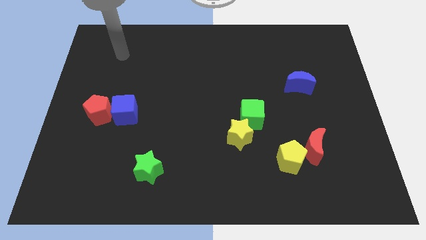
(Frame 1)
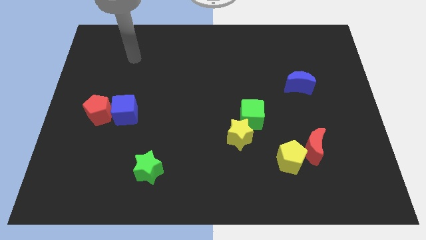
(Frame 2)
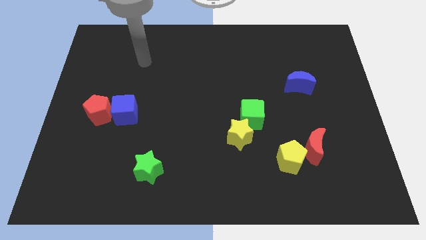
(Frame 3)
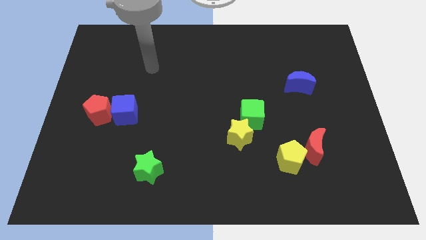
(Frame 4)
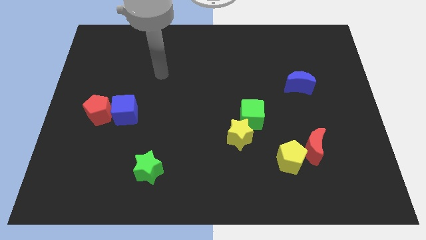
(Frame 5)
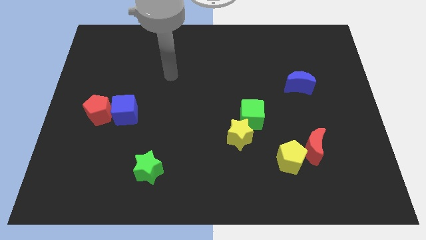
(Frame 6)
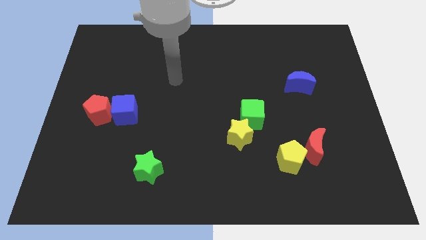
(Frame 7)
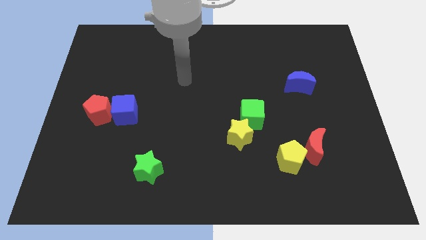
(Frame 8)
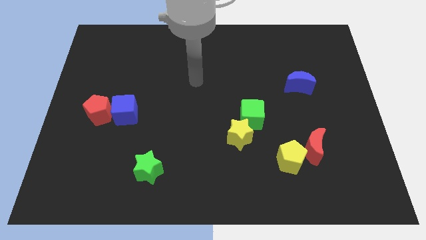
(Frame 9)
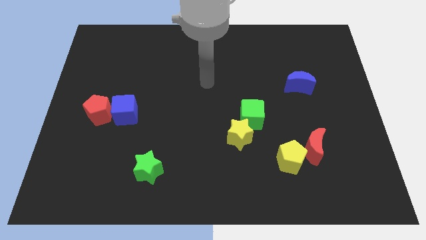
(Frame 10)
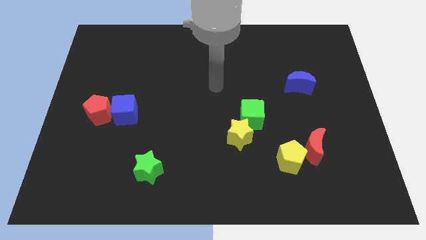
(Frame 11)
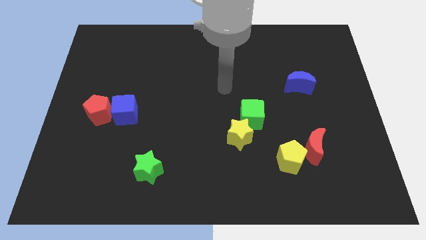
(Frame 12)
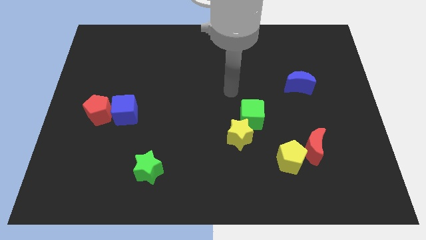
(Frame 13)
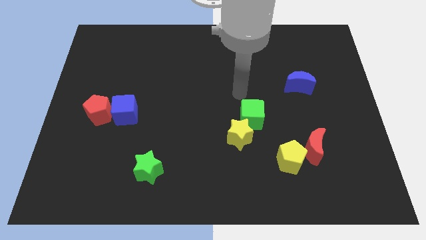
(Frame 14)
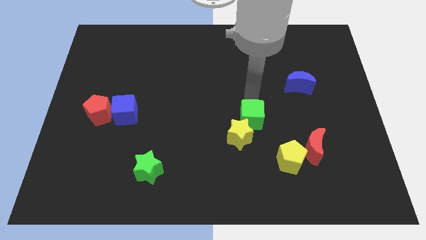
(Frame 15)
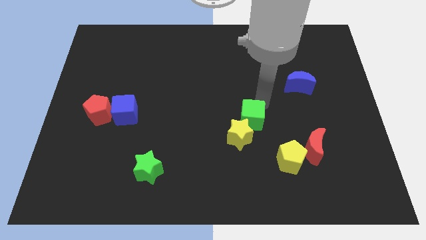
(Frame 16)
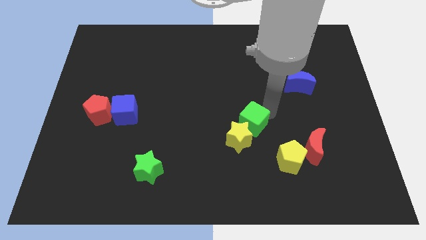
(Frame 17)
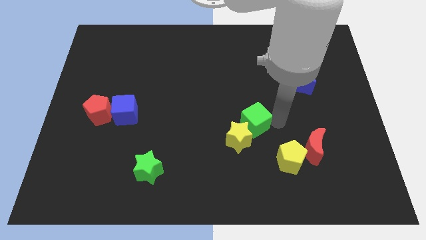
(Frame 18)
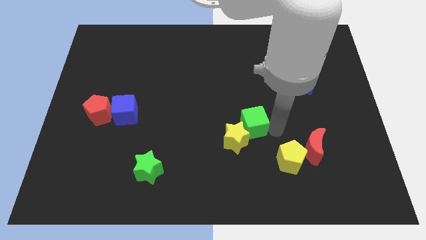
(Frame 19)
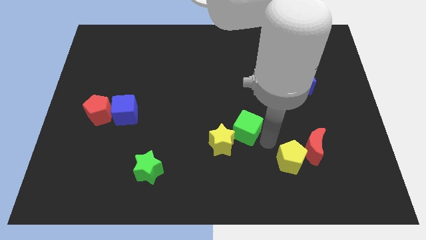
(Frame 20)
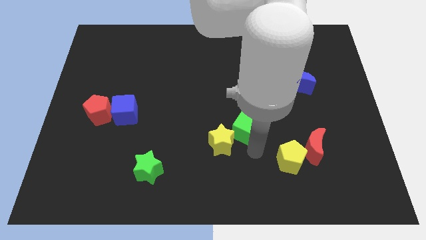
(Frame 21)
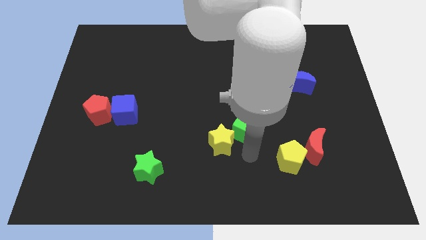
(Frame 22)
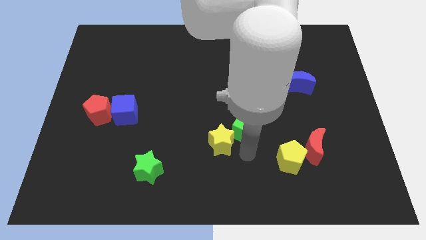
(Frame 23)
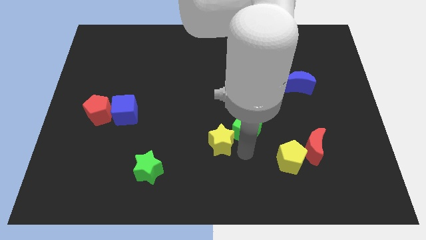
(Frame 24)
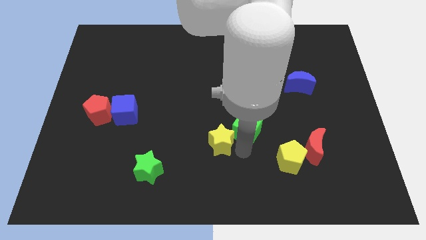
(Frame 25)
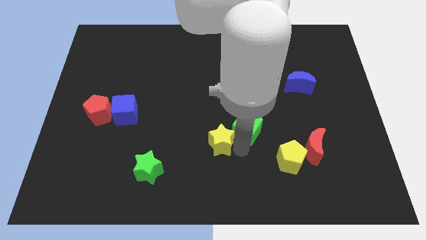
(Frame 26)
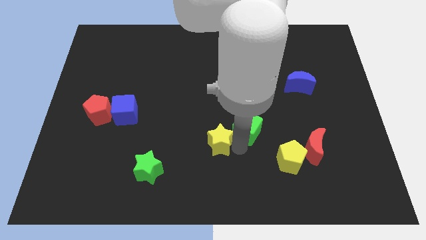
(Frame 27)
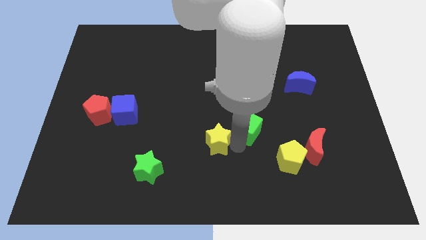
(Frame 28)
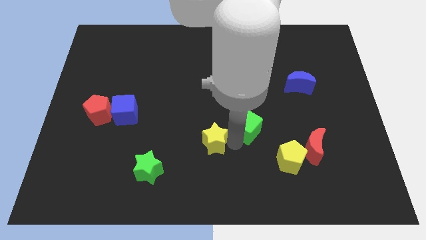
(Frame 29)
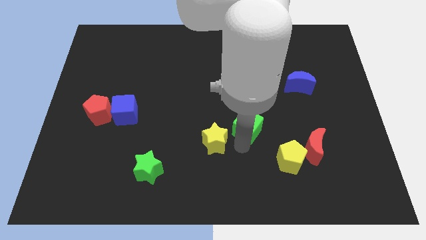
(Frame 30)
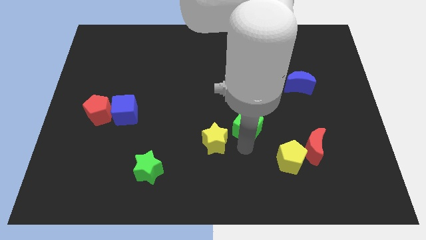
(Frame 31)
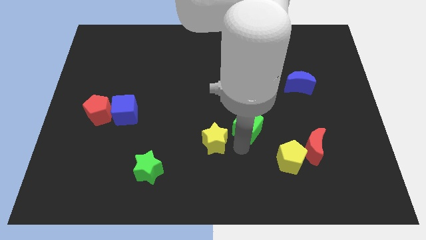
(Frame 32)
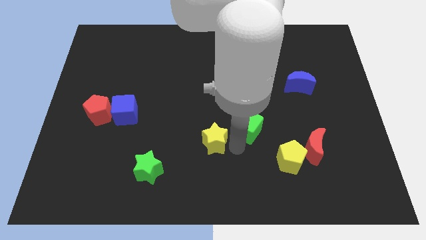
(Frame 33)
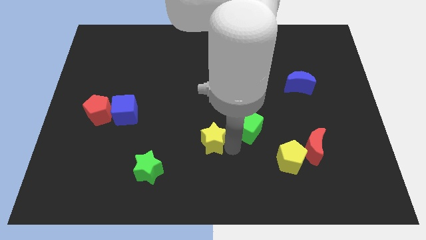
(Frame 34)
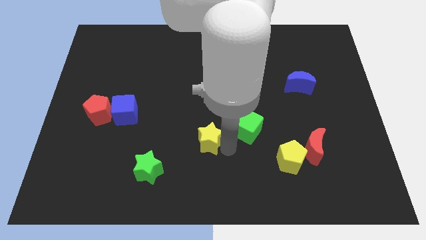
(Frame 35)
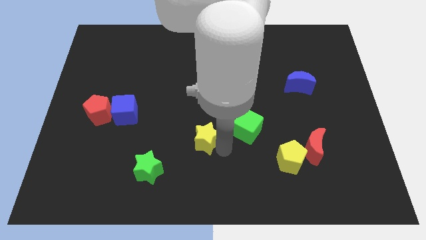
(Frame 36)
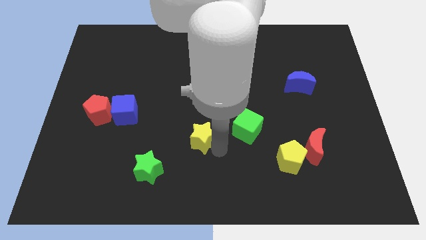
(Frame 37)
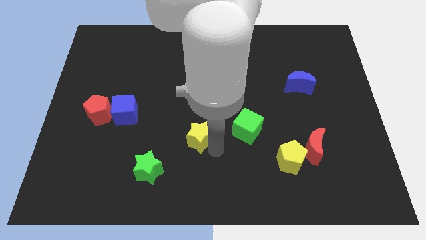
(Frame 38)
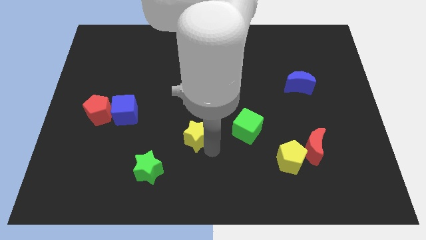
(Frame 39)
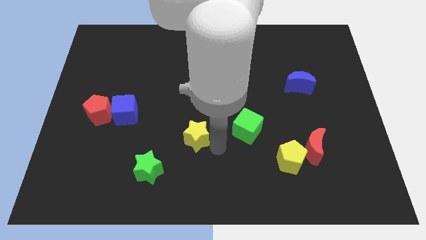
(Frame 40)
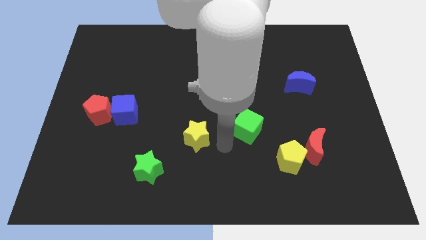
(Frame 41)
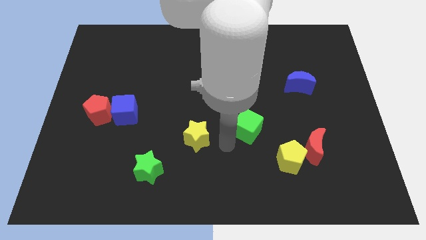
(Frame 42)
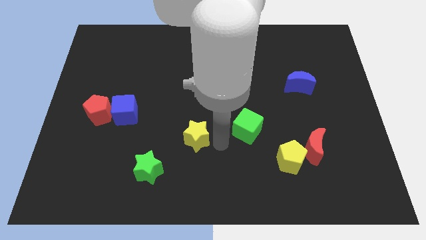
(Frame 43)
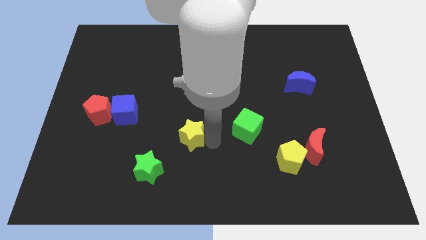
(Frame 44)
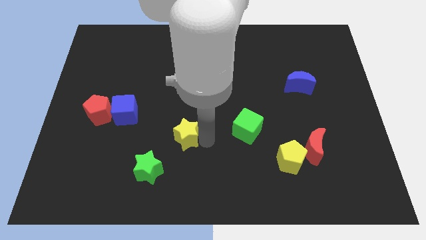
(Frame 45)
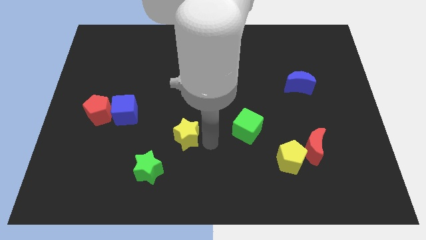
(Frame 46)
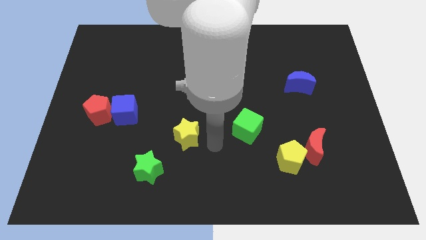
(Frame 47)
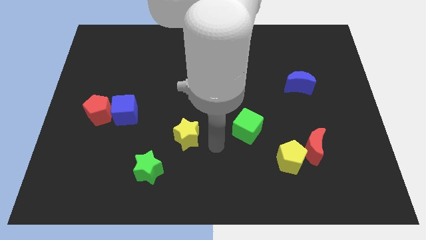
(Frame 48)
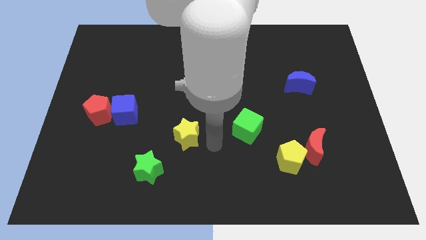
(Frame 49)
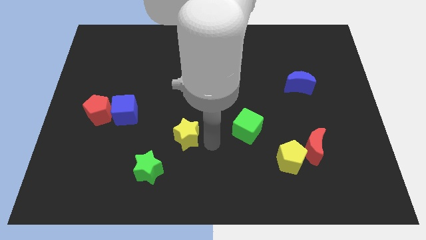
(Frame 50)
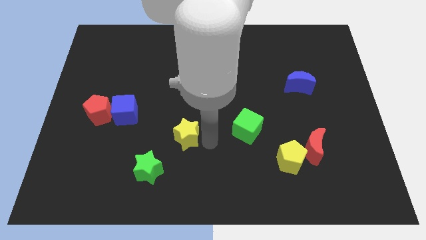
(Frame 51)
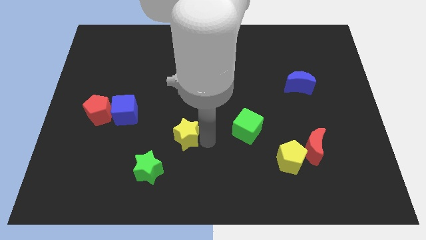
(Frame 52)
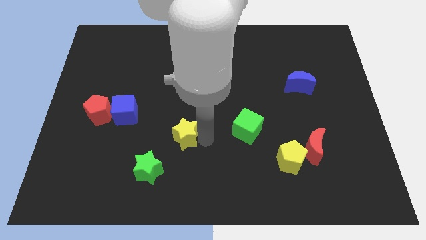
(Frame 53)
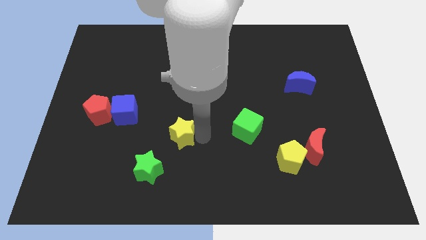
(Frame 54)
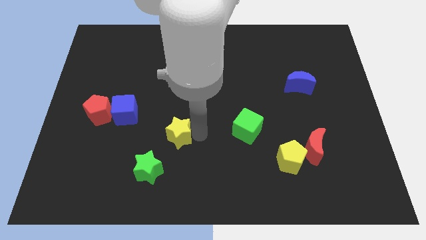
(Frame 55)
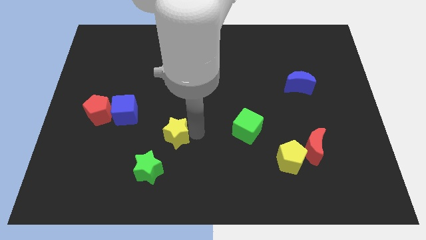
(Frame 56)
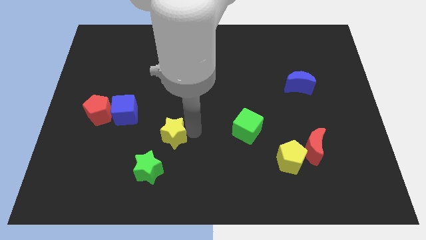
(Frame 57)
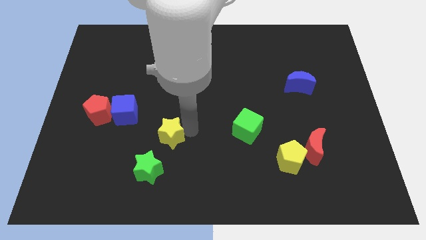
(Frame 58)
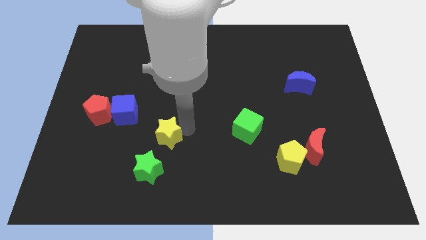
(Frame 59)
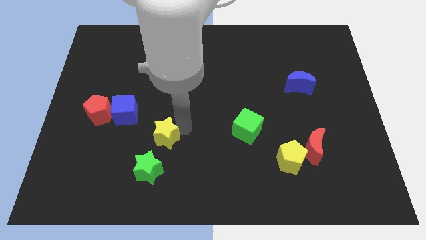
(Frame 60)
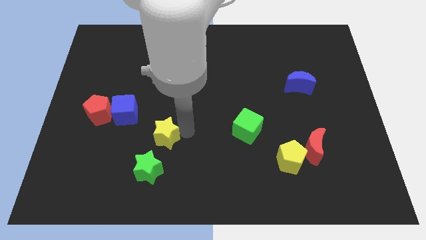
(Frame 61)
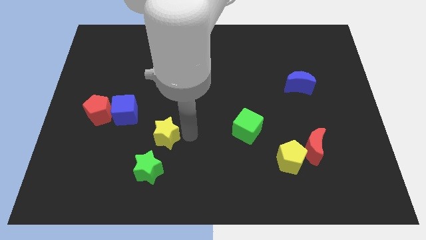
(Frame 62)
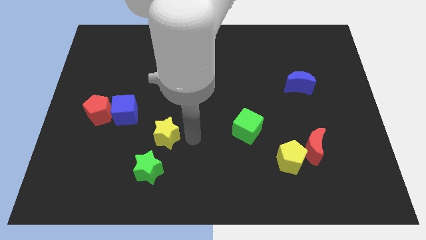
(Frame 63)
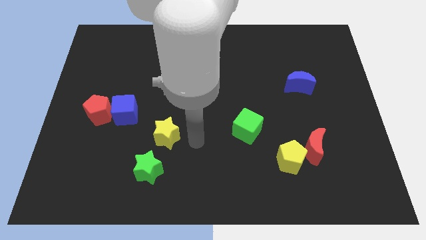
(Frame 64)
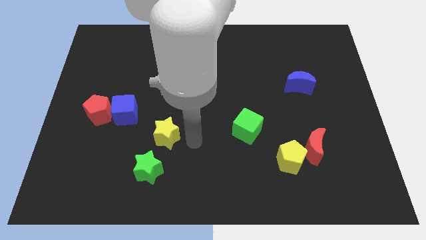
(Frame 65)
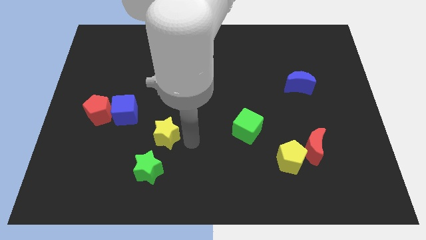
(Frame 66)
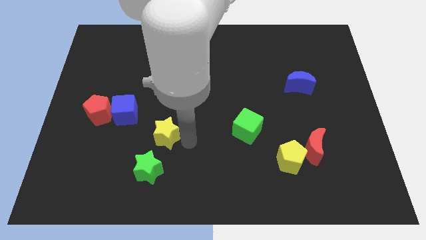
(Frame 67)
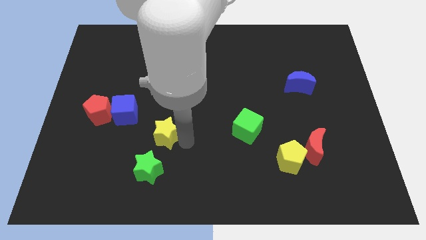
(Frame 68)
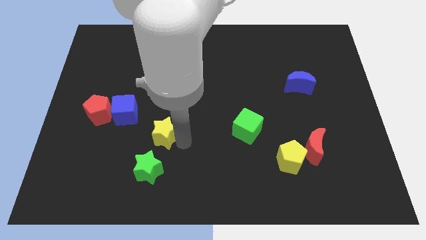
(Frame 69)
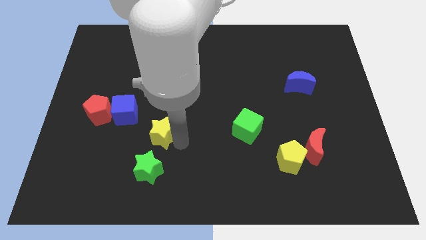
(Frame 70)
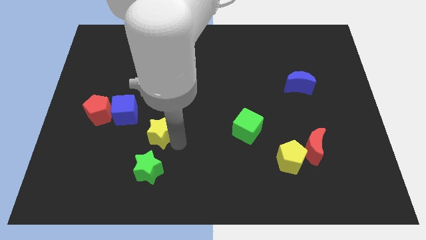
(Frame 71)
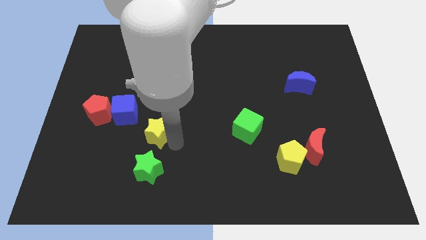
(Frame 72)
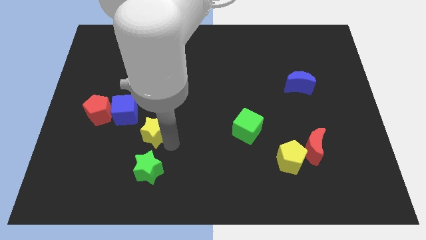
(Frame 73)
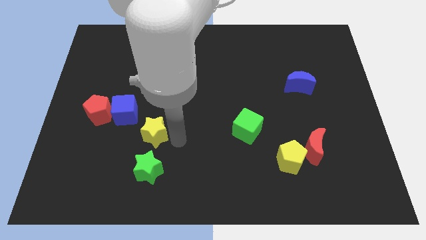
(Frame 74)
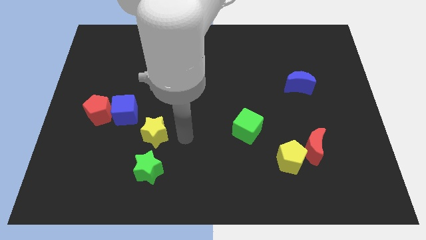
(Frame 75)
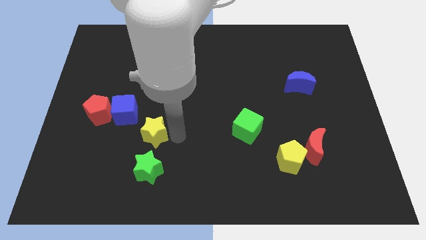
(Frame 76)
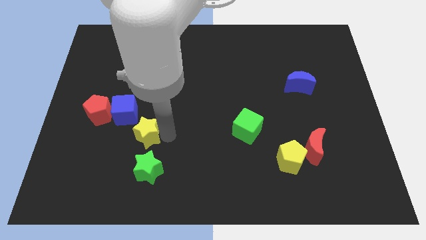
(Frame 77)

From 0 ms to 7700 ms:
push the yellow star left

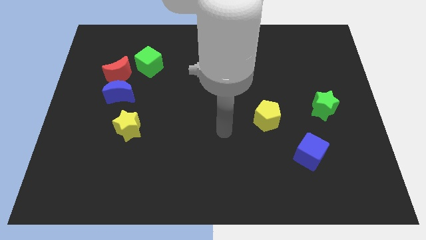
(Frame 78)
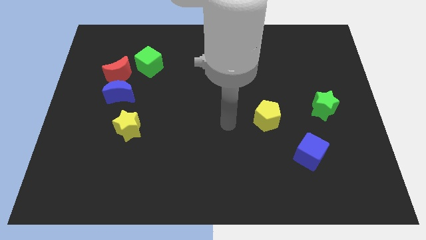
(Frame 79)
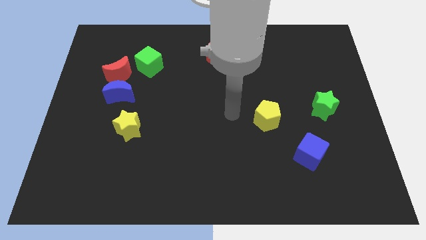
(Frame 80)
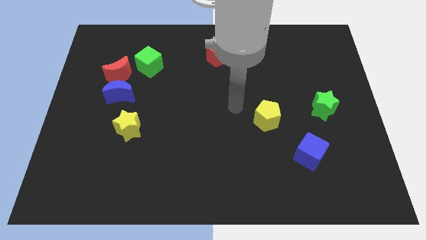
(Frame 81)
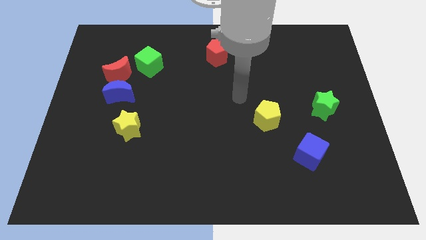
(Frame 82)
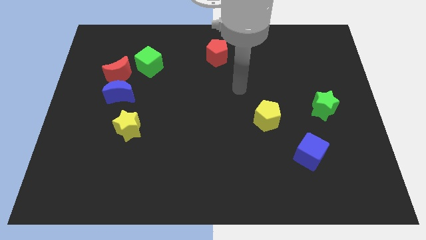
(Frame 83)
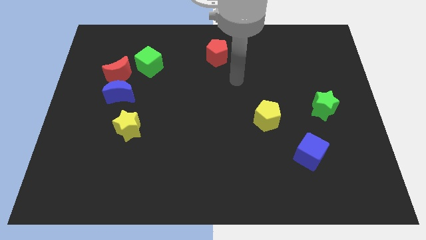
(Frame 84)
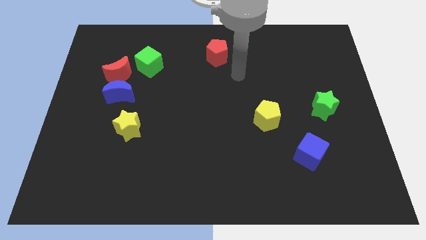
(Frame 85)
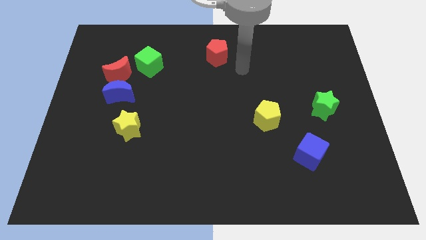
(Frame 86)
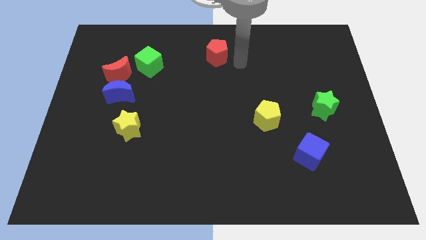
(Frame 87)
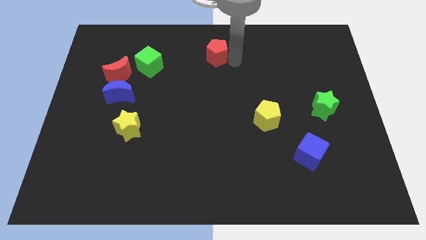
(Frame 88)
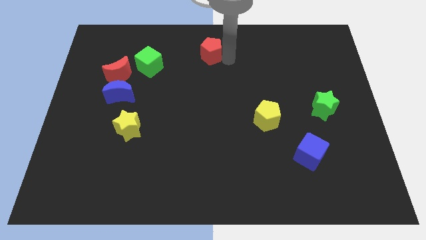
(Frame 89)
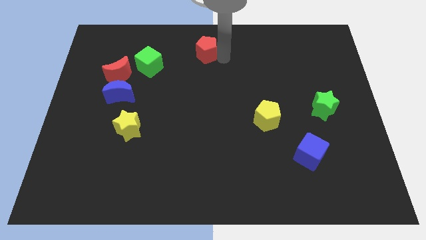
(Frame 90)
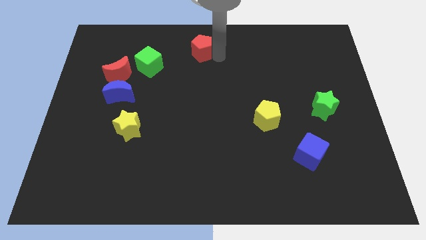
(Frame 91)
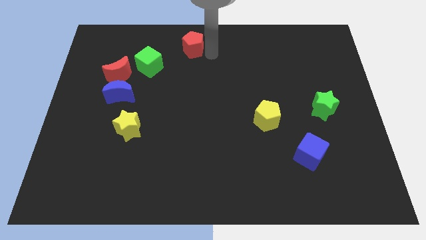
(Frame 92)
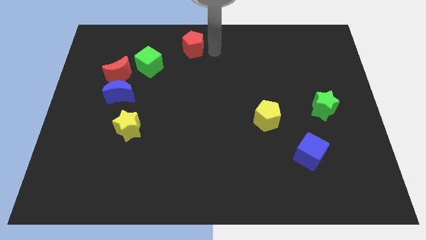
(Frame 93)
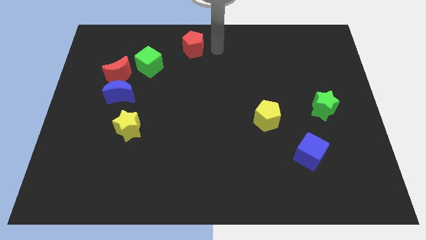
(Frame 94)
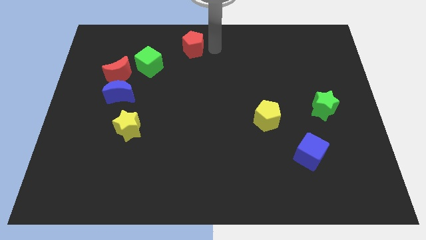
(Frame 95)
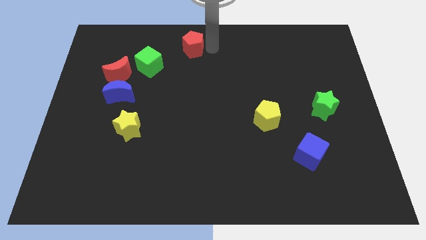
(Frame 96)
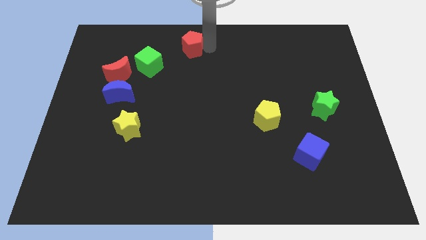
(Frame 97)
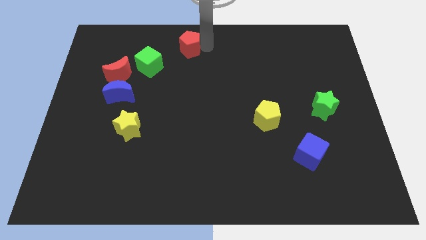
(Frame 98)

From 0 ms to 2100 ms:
push the red pentagon left slightly
